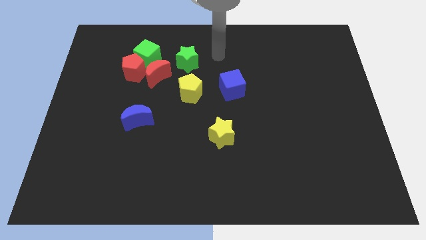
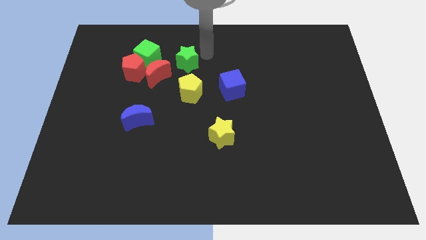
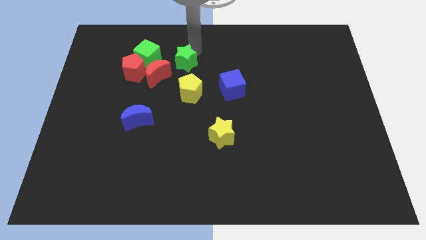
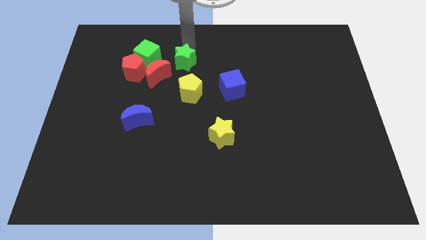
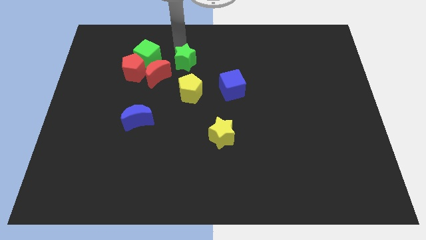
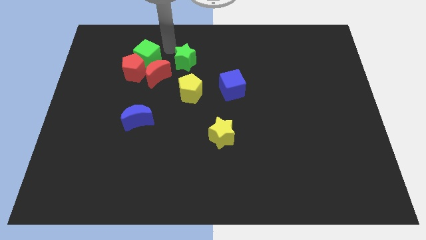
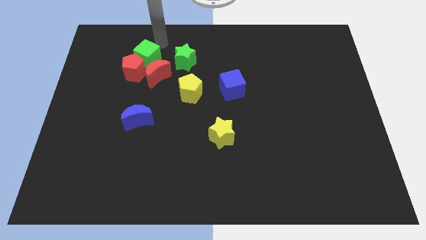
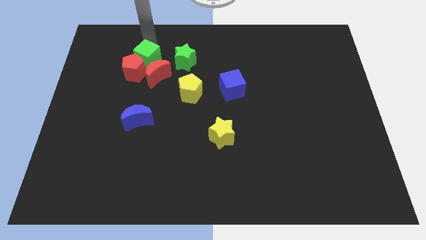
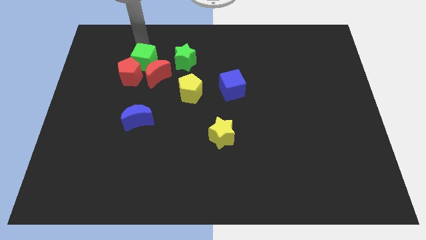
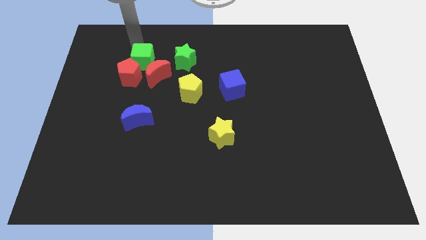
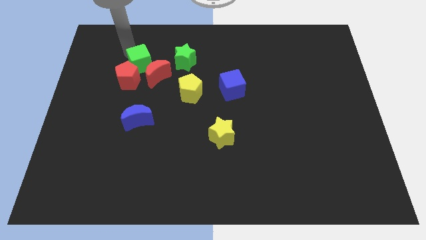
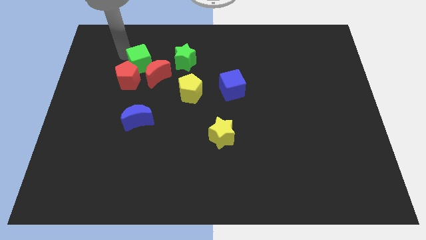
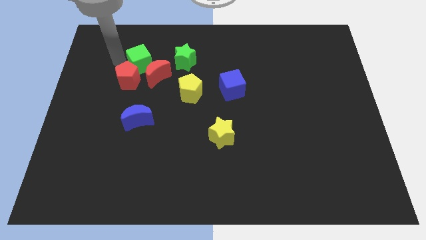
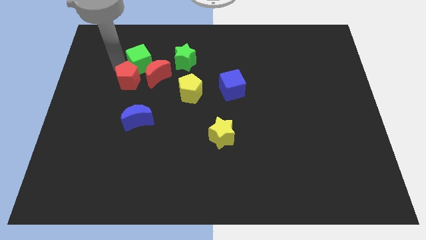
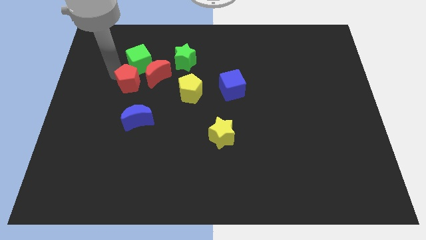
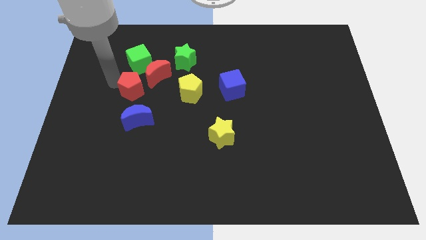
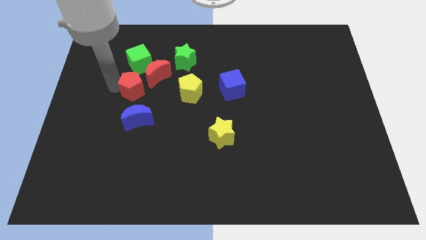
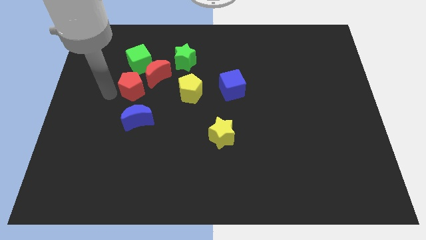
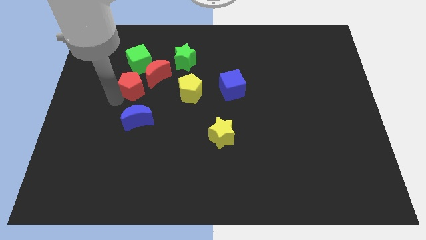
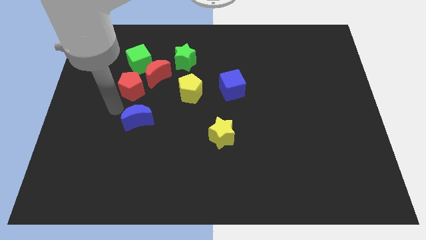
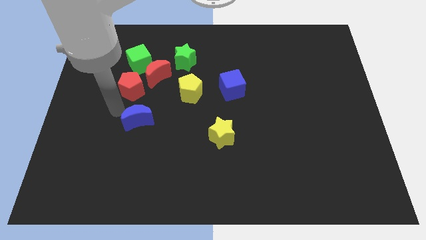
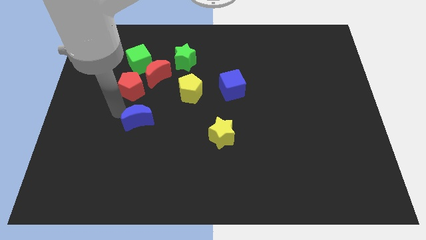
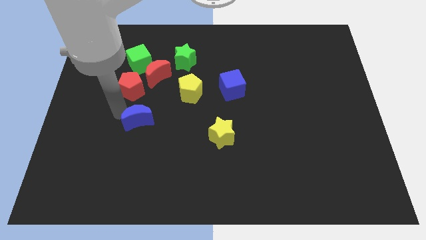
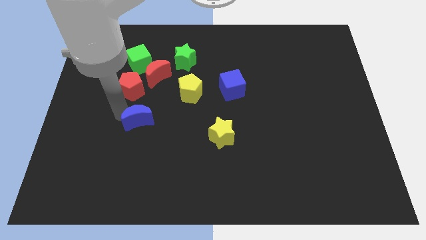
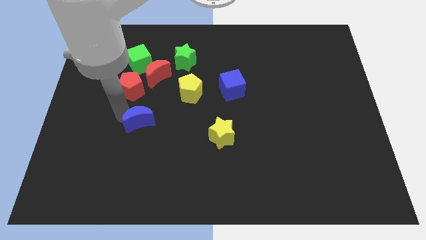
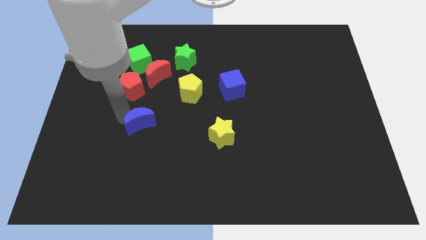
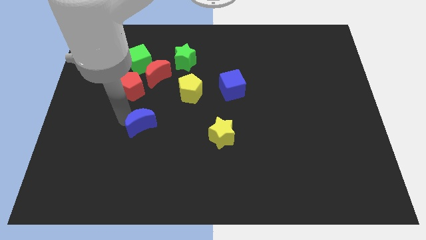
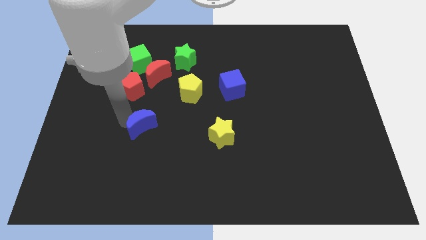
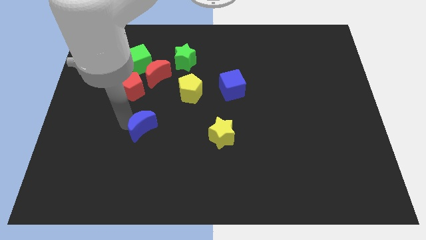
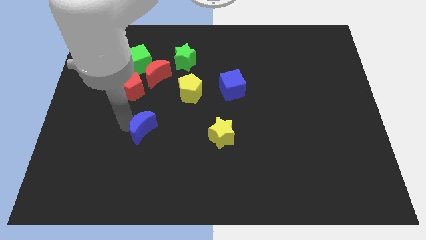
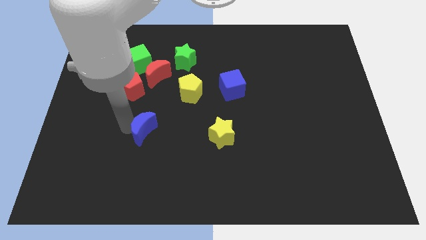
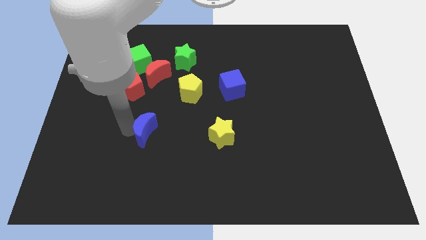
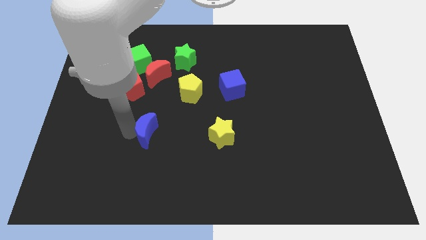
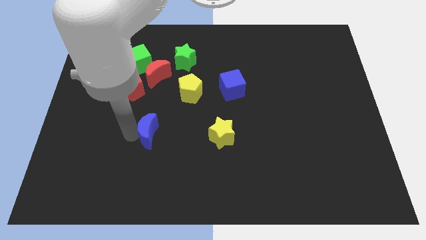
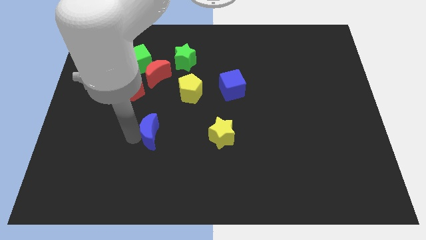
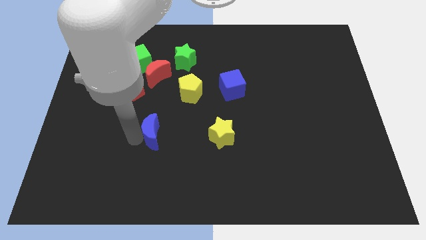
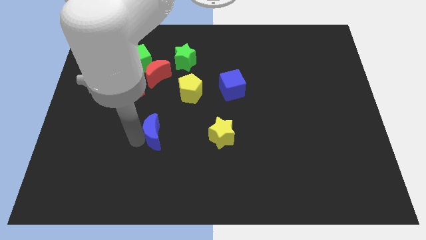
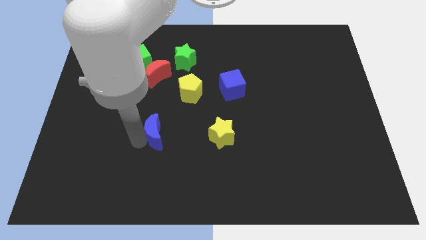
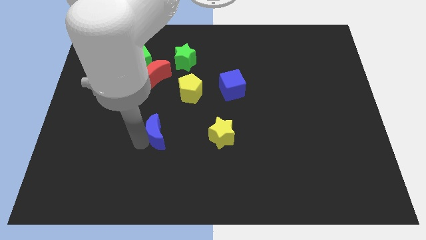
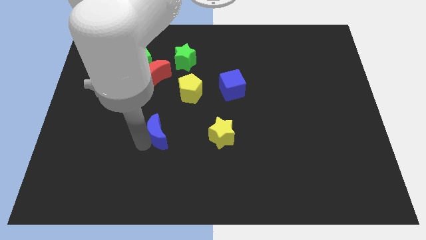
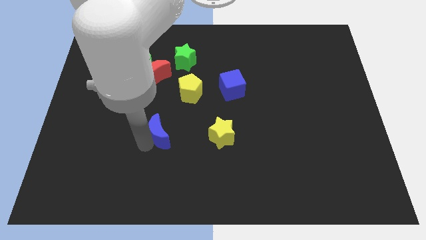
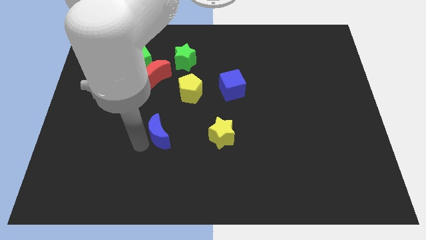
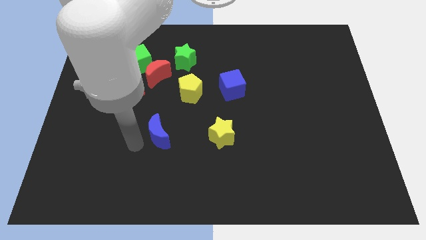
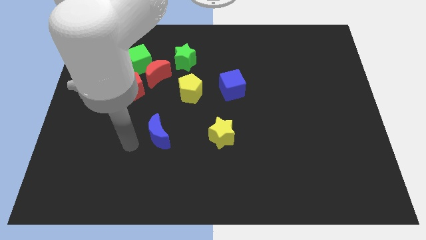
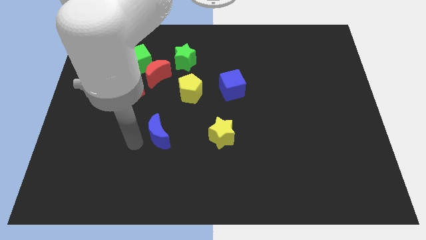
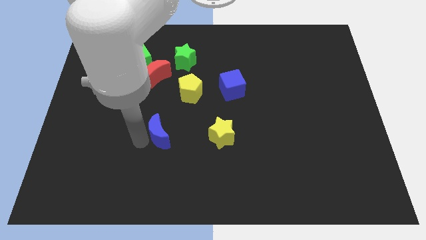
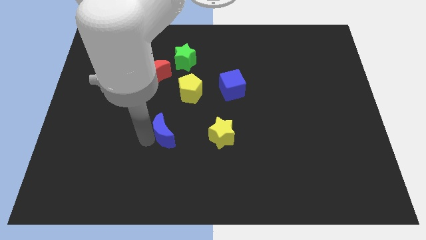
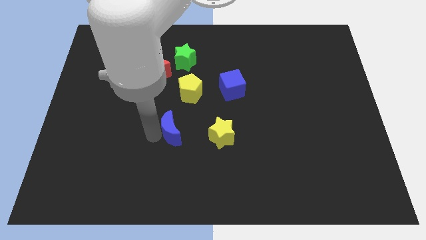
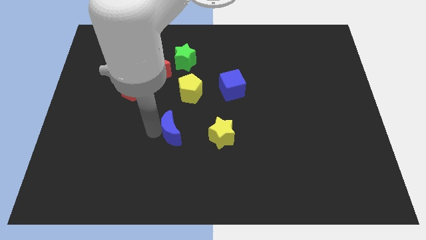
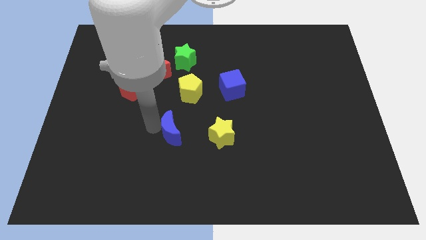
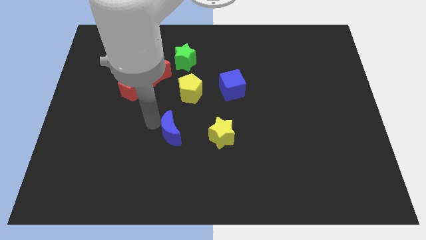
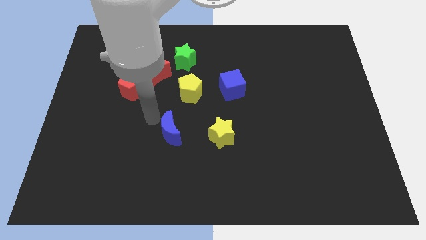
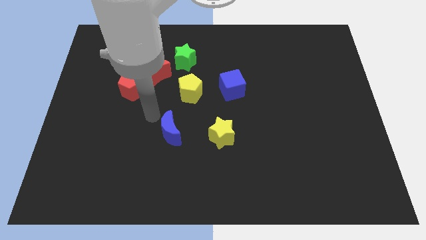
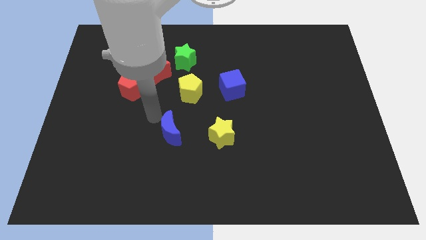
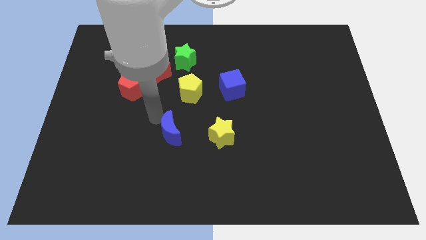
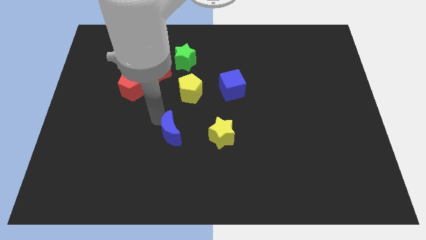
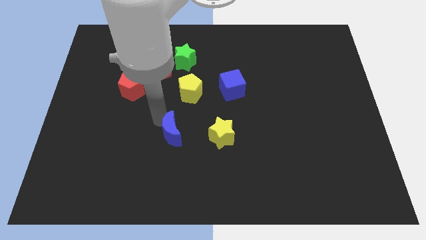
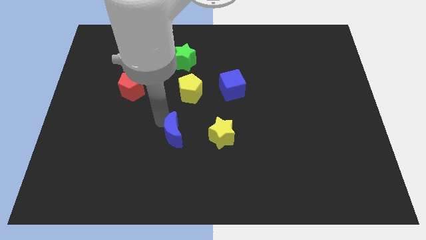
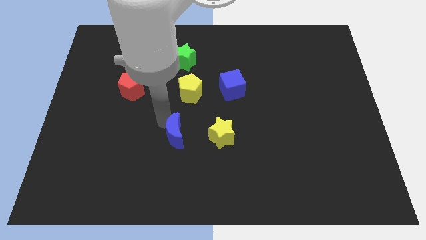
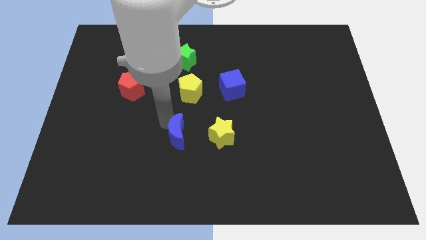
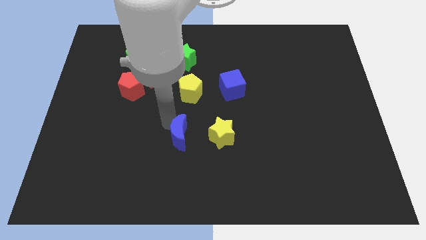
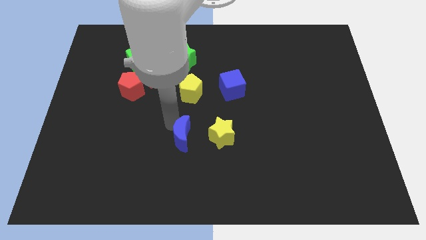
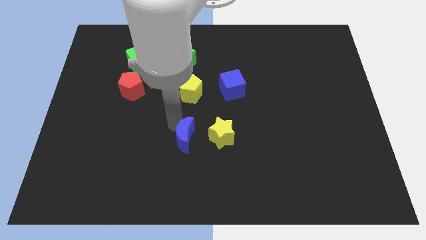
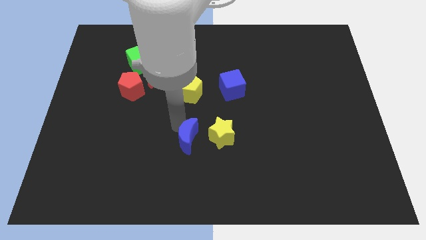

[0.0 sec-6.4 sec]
push the blue moon diagonally down and to the left of the yellow star
